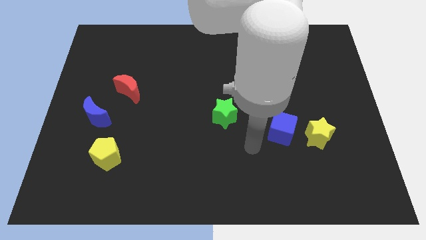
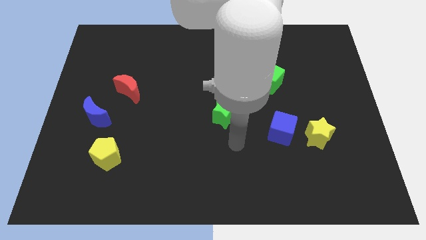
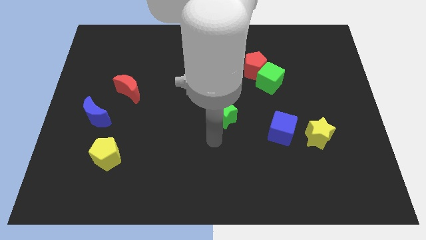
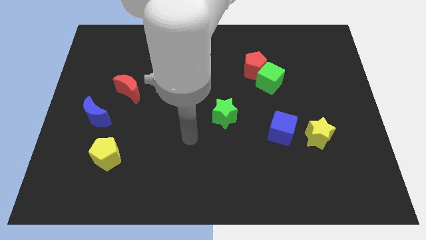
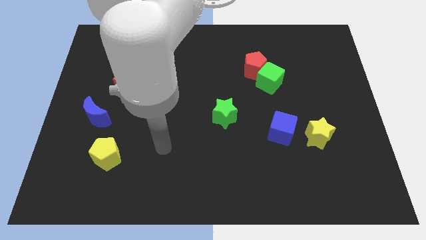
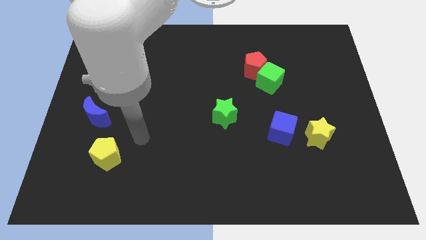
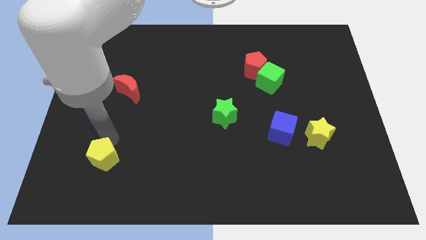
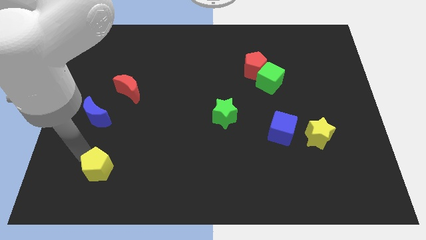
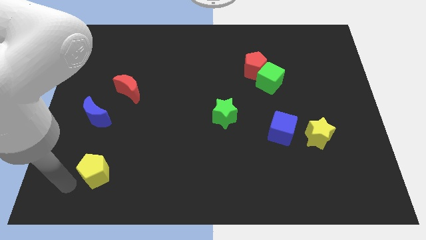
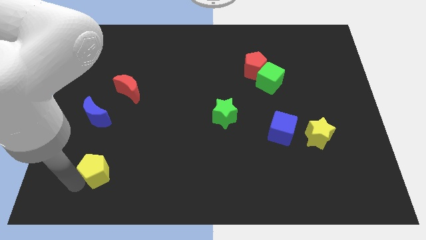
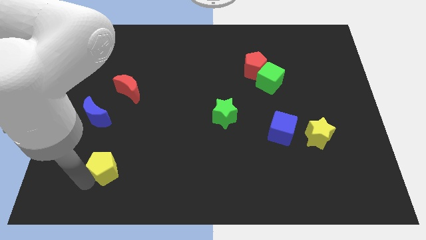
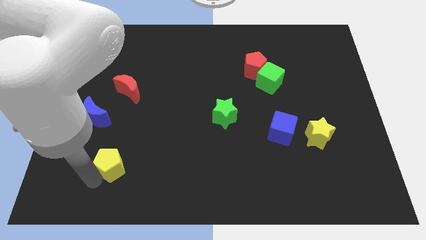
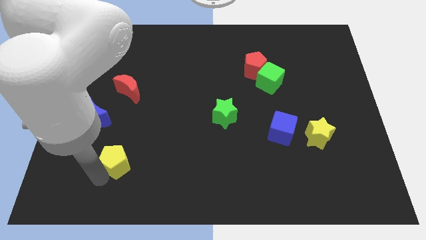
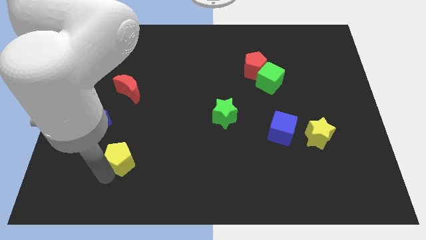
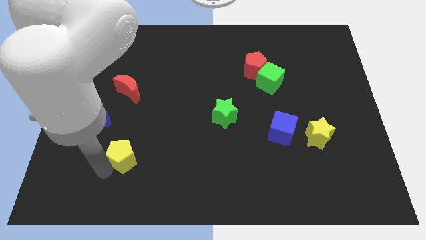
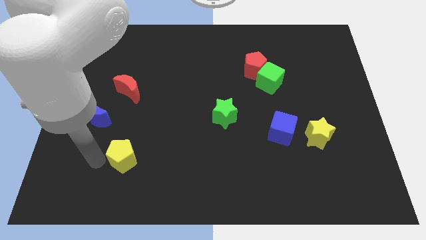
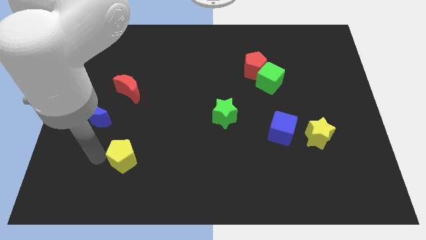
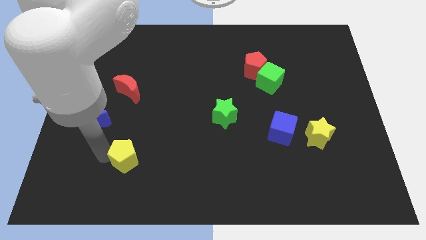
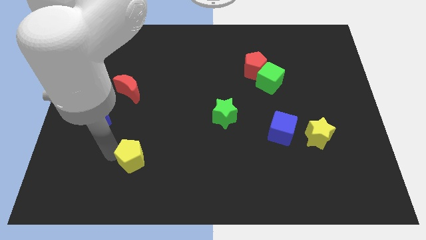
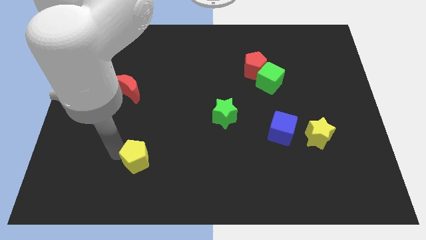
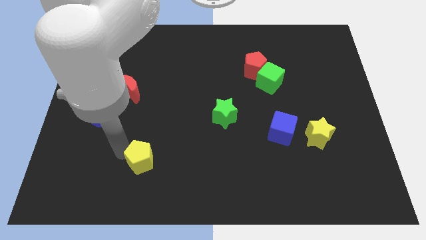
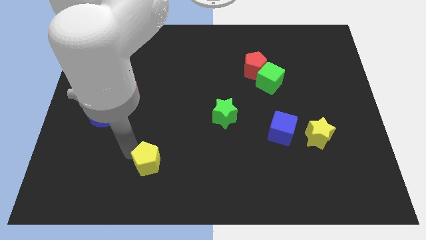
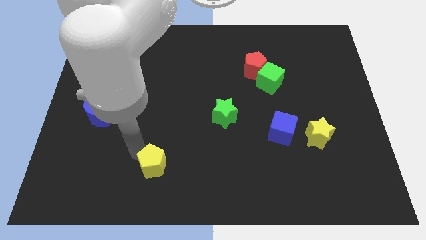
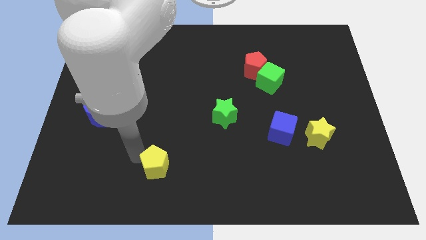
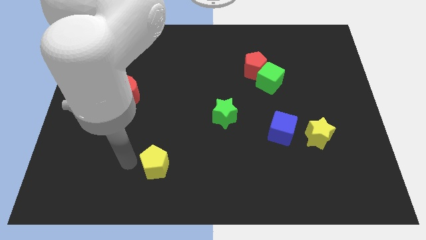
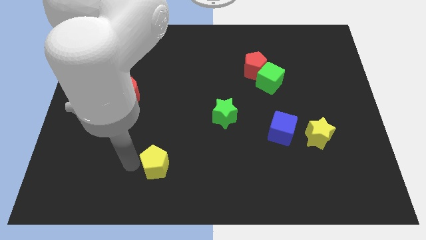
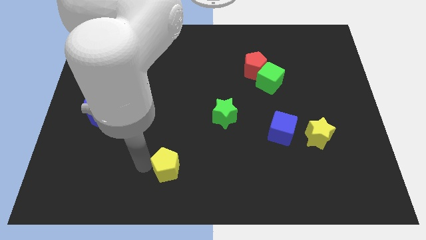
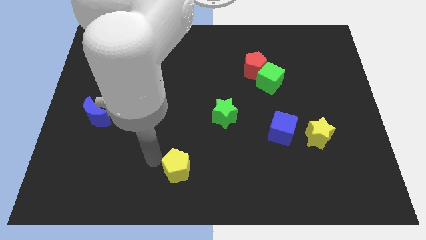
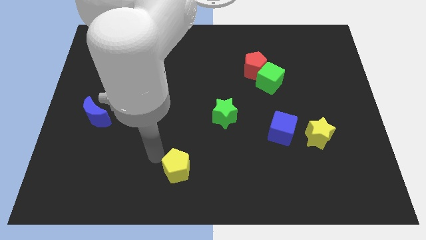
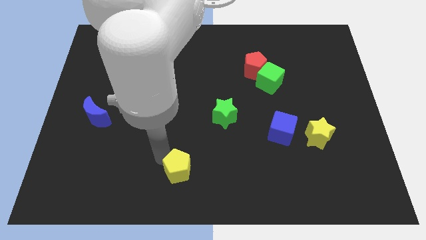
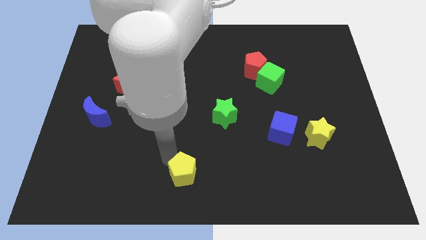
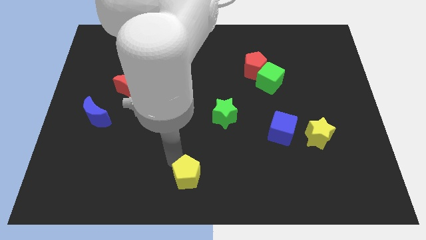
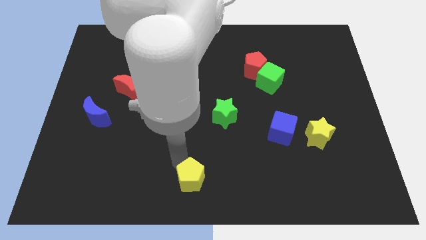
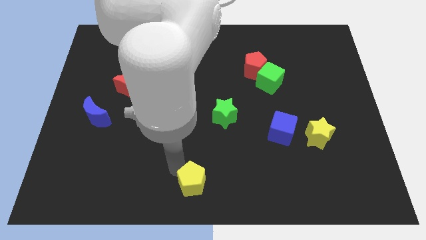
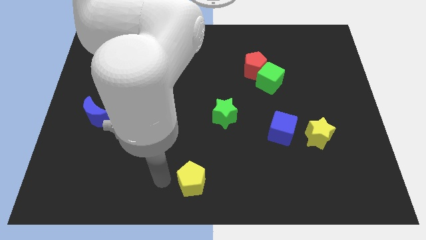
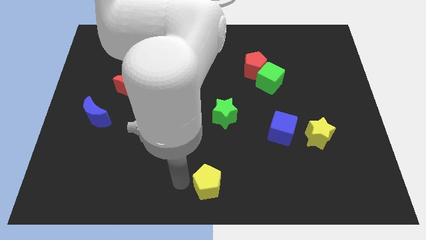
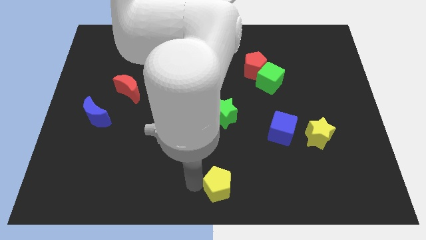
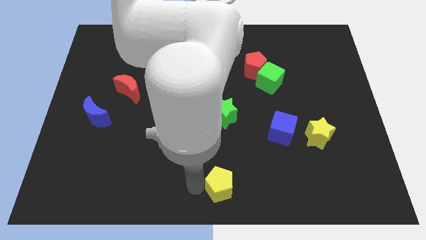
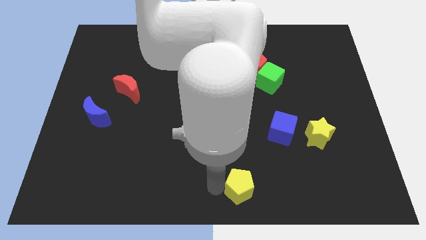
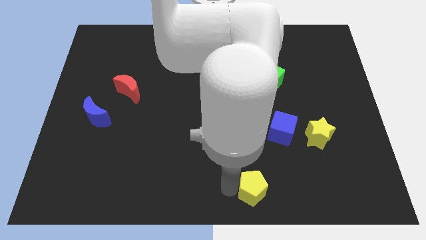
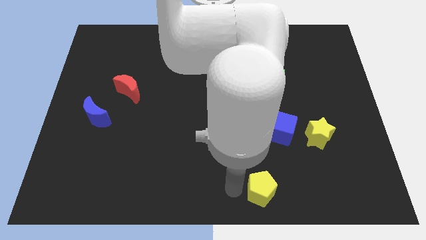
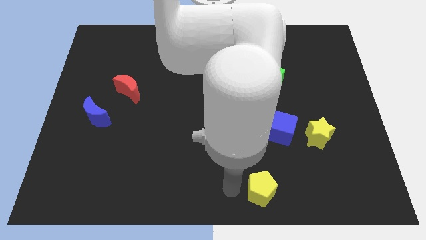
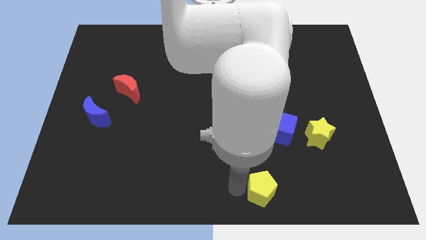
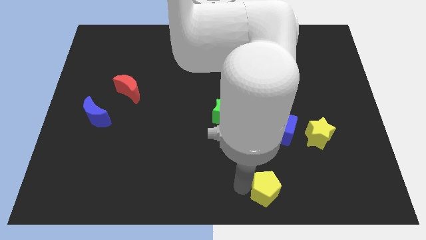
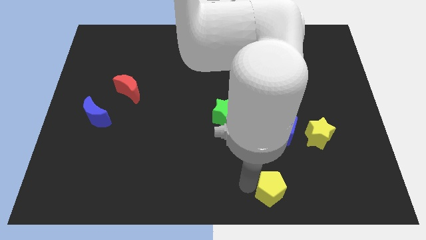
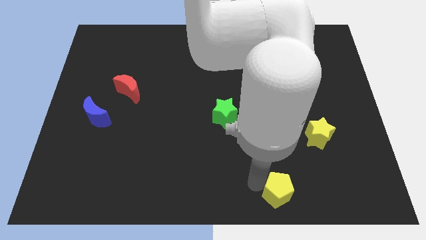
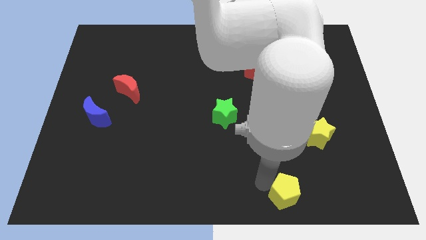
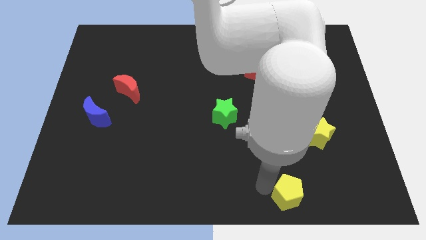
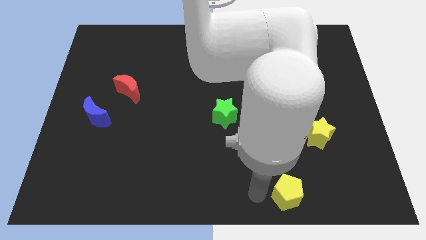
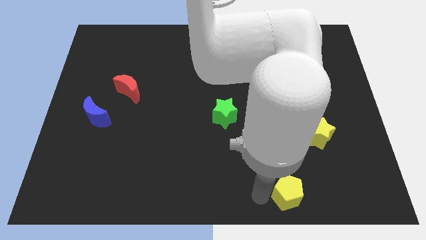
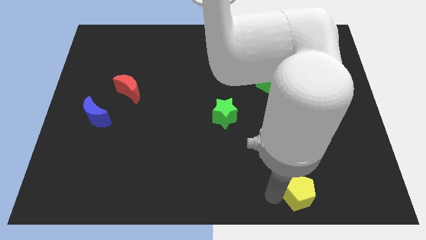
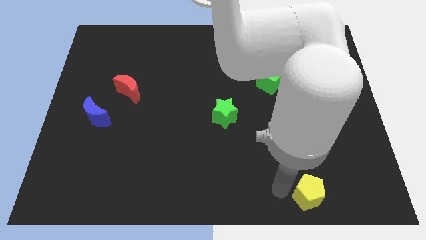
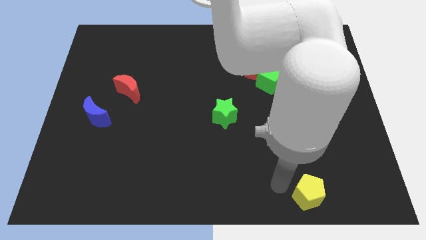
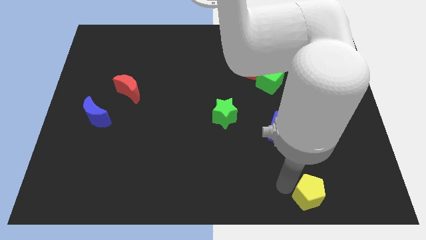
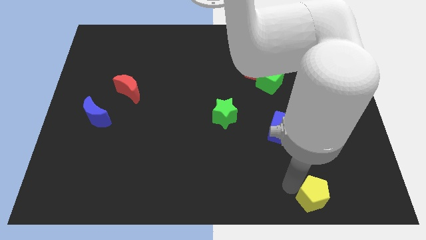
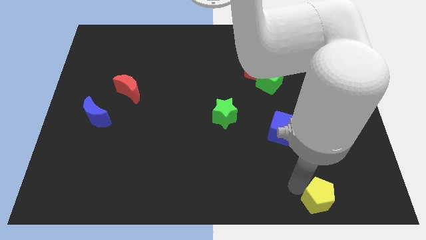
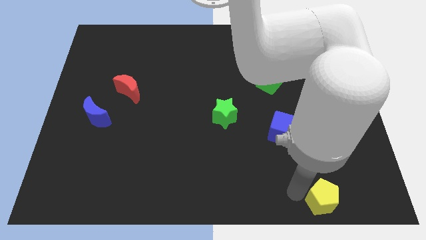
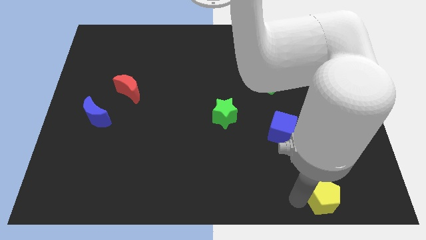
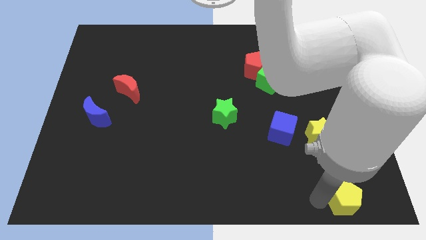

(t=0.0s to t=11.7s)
slide the yellow pentagon to the bottom right corner
